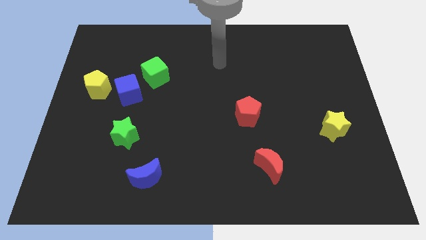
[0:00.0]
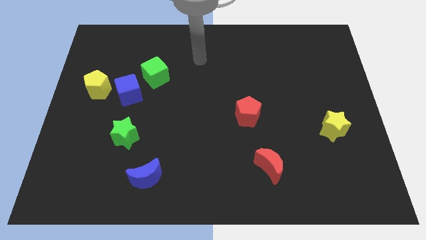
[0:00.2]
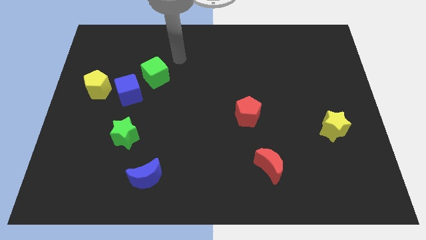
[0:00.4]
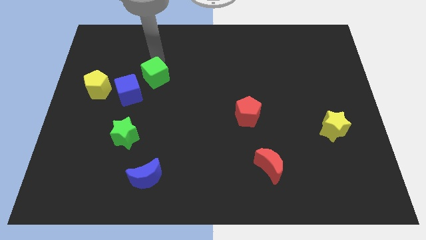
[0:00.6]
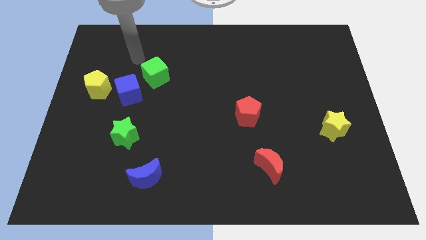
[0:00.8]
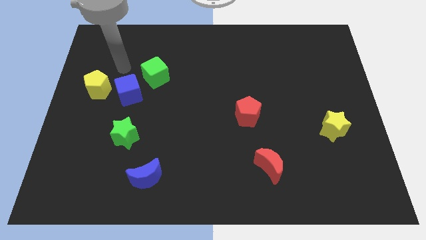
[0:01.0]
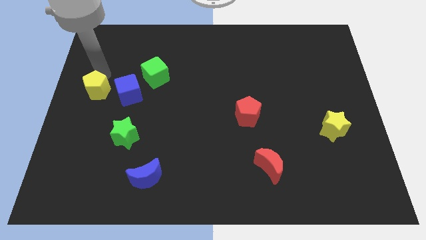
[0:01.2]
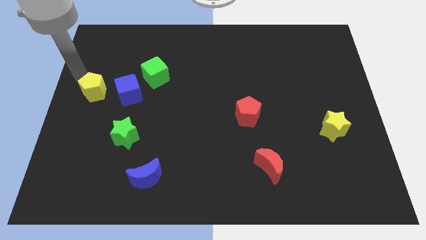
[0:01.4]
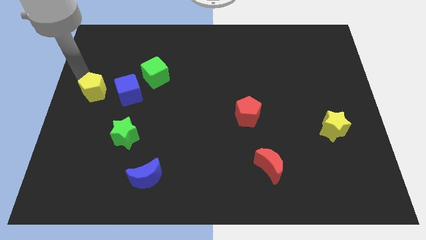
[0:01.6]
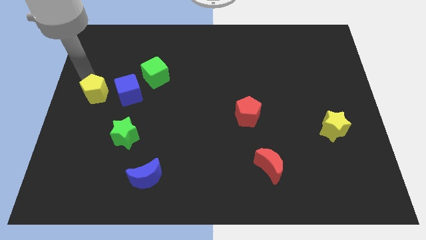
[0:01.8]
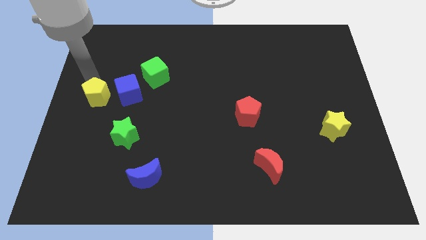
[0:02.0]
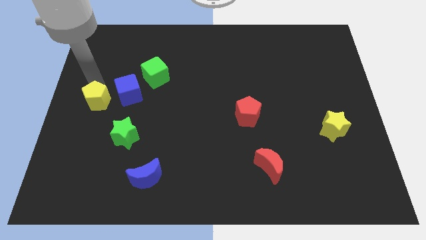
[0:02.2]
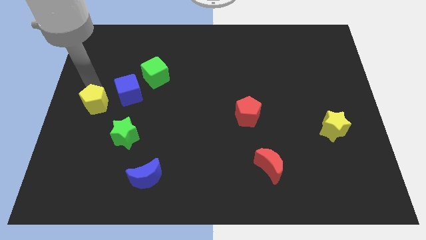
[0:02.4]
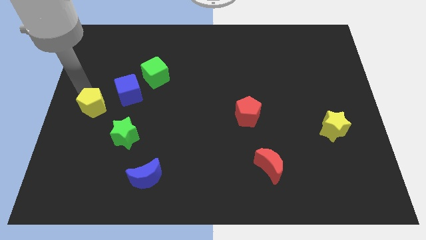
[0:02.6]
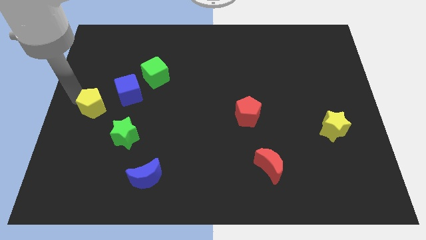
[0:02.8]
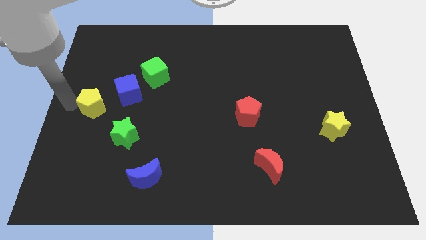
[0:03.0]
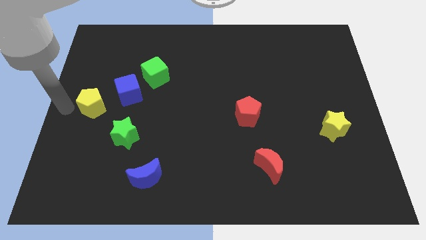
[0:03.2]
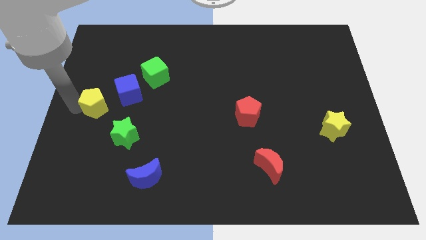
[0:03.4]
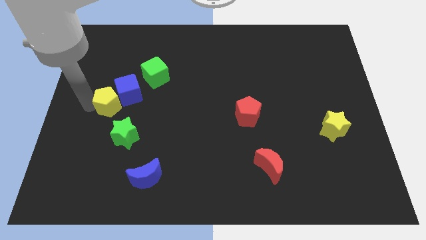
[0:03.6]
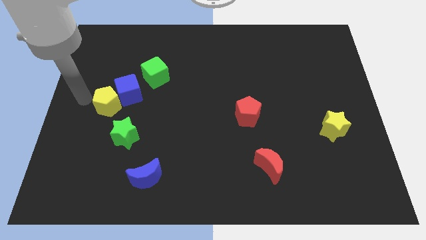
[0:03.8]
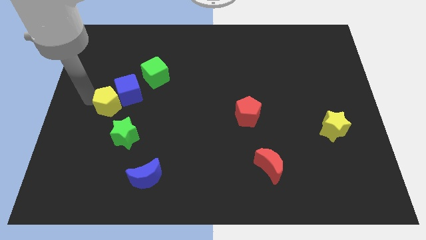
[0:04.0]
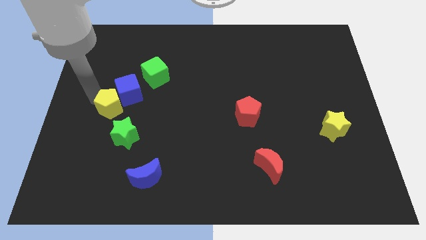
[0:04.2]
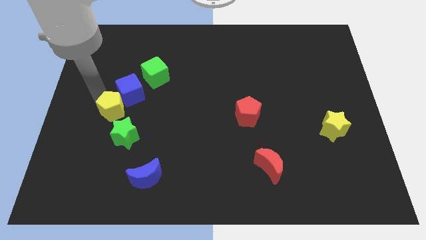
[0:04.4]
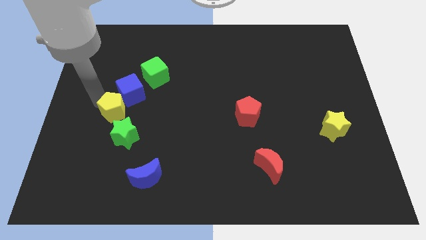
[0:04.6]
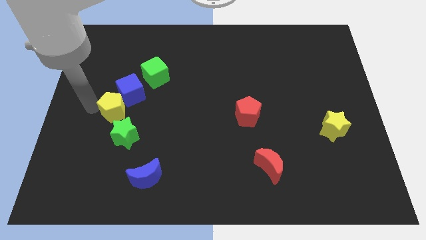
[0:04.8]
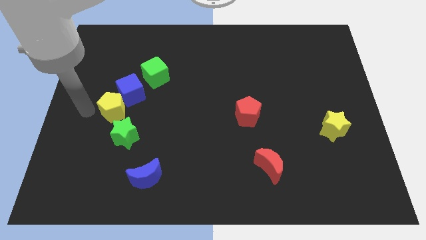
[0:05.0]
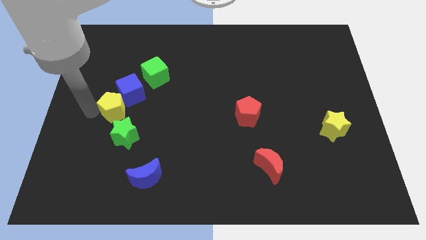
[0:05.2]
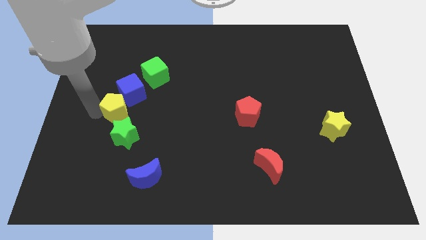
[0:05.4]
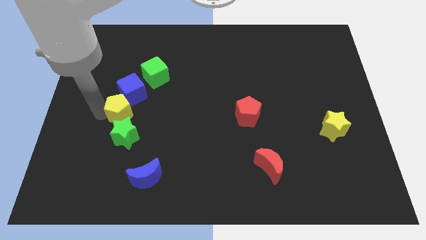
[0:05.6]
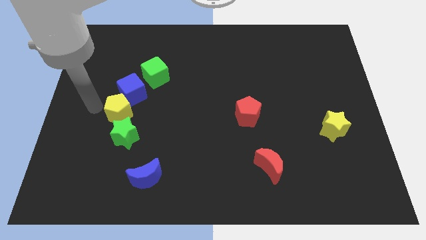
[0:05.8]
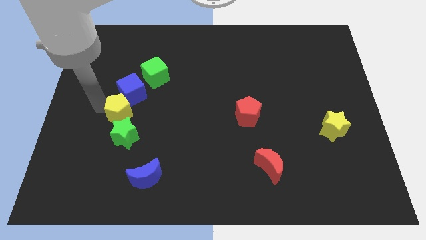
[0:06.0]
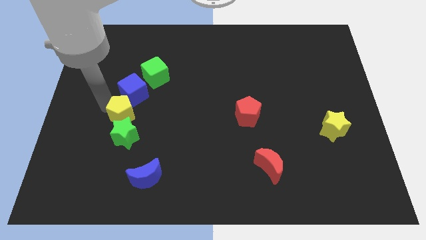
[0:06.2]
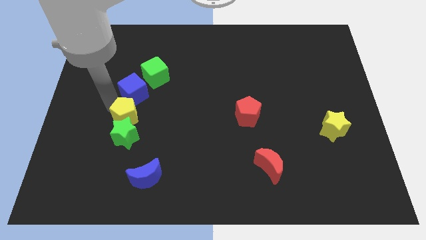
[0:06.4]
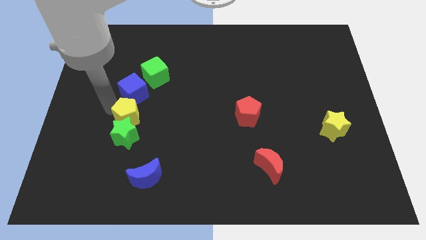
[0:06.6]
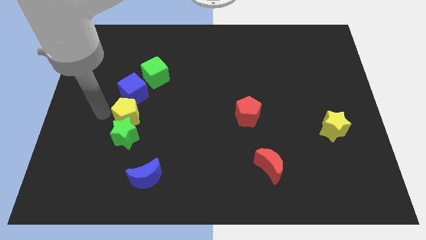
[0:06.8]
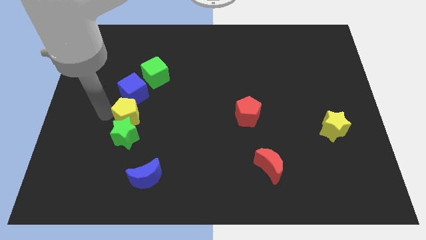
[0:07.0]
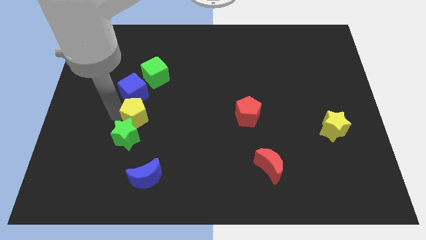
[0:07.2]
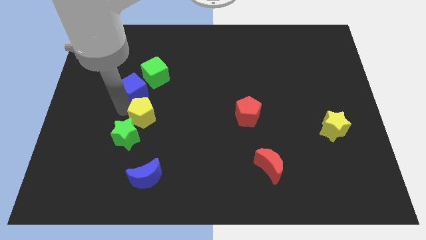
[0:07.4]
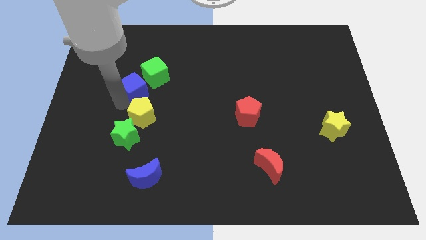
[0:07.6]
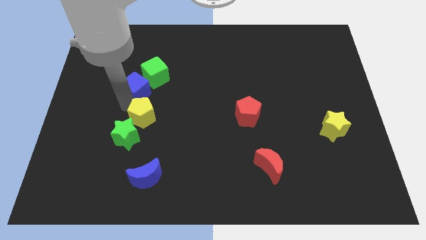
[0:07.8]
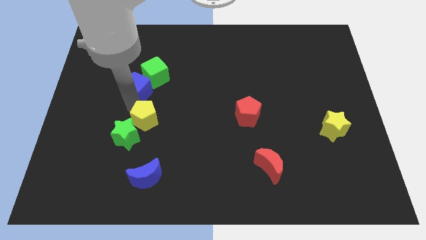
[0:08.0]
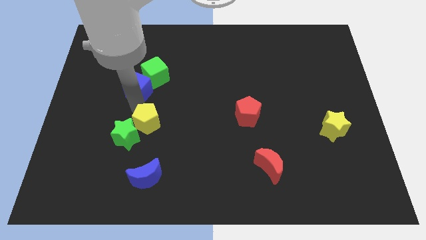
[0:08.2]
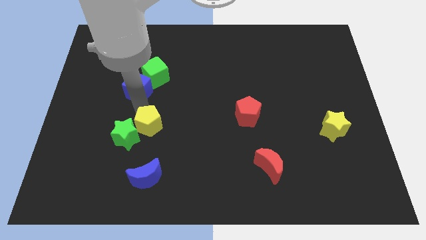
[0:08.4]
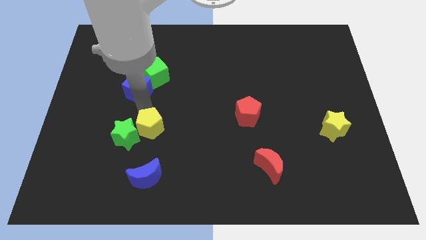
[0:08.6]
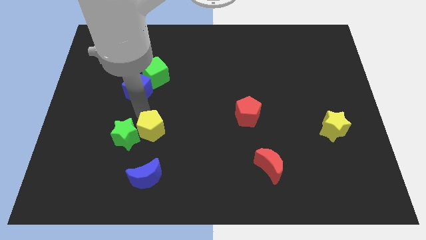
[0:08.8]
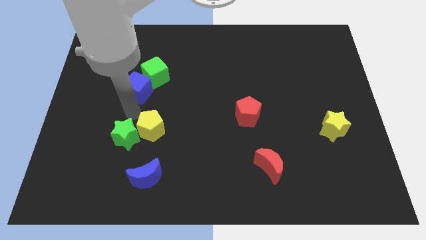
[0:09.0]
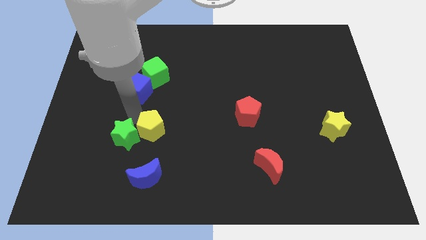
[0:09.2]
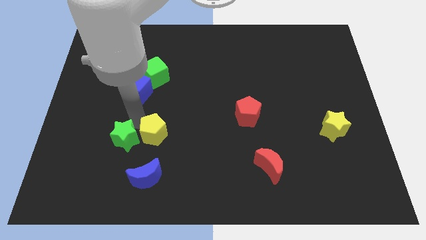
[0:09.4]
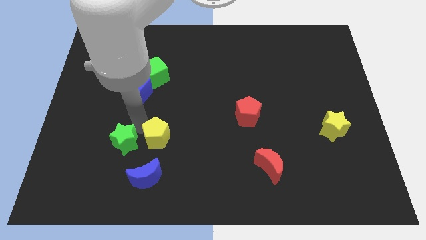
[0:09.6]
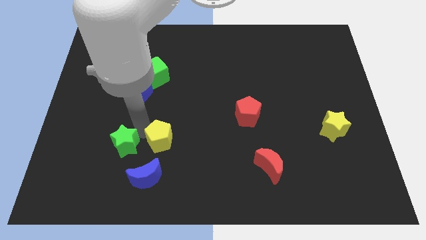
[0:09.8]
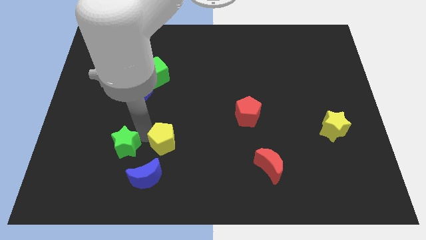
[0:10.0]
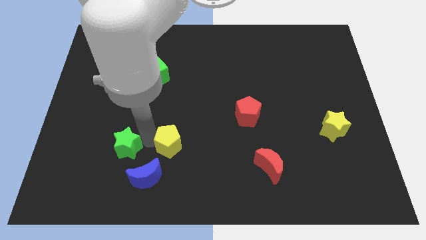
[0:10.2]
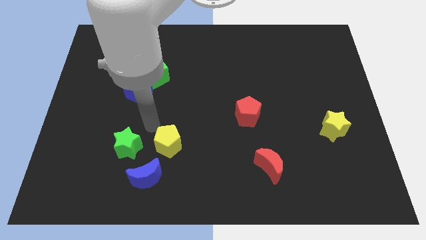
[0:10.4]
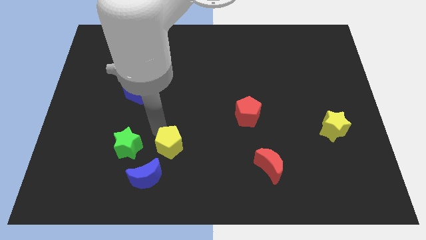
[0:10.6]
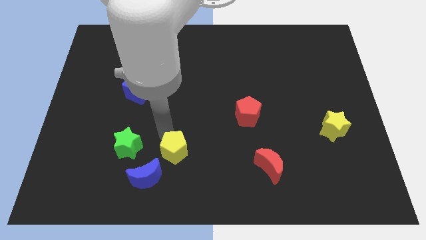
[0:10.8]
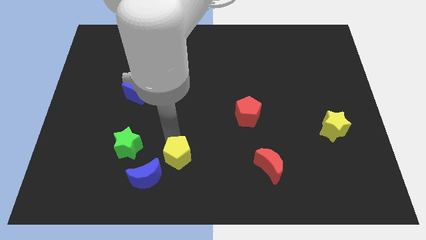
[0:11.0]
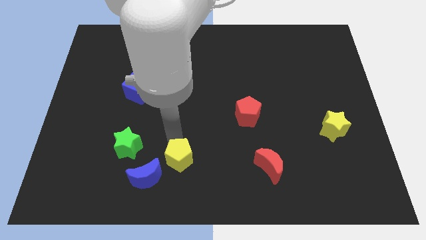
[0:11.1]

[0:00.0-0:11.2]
put the yellow pentagon to the right of the blue moon
